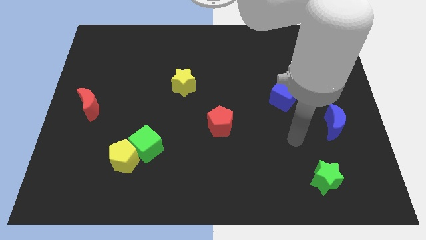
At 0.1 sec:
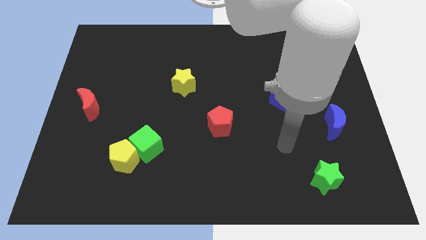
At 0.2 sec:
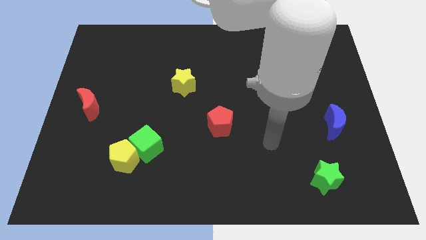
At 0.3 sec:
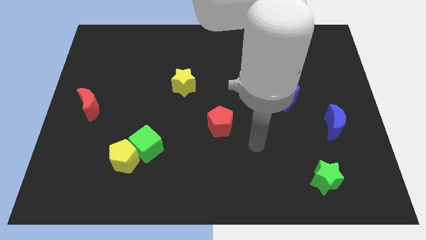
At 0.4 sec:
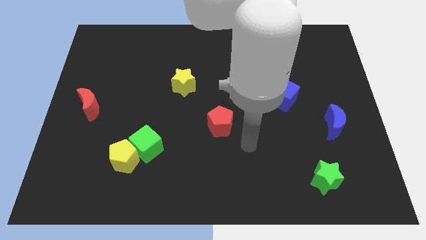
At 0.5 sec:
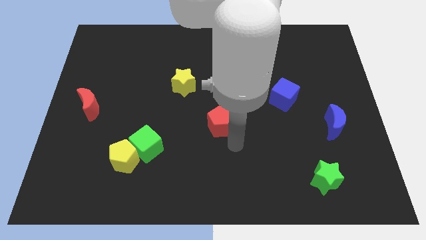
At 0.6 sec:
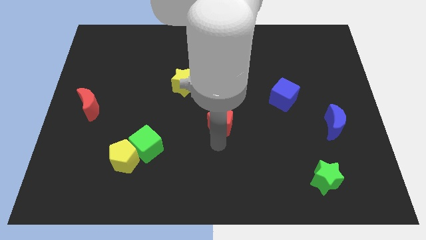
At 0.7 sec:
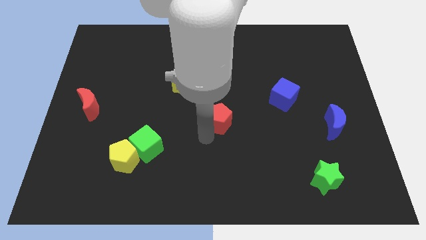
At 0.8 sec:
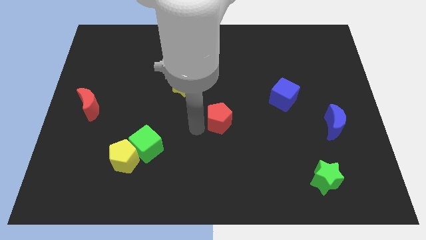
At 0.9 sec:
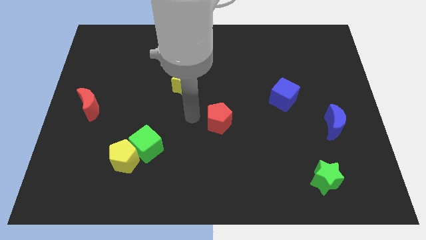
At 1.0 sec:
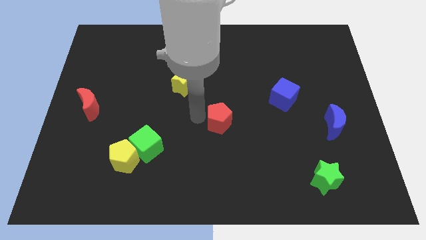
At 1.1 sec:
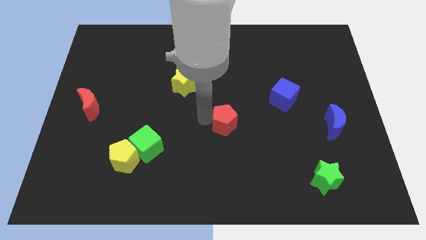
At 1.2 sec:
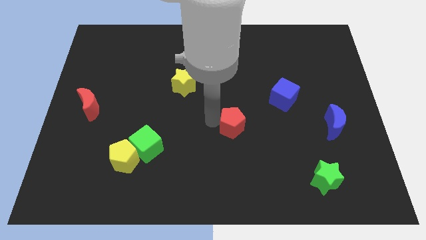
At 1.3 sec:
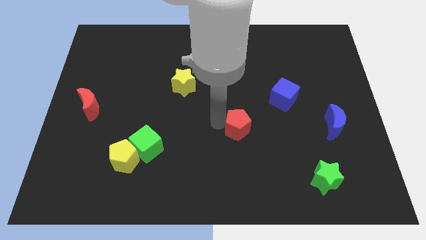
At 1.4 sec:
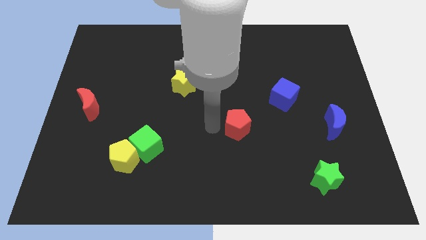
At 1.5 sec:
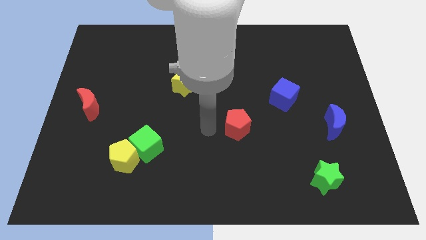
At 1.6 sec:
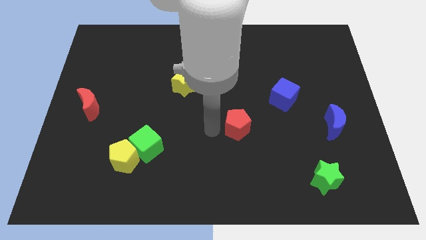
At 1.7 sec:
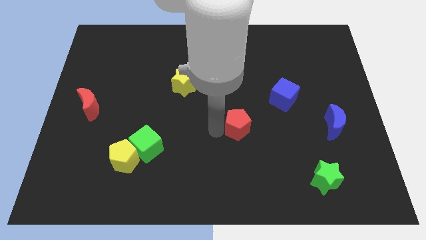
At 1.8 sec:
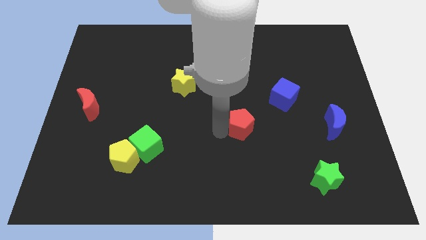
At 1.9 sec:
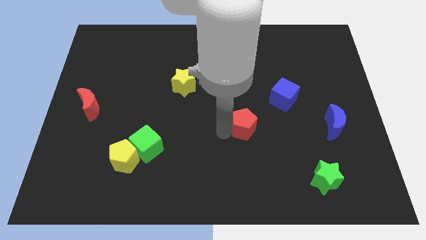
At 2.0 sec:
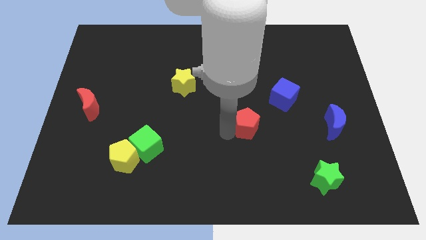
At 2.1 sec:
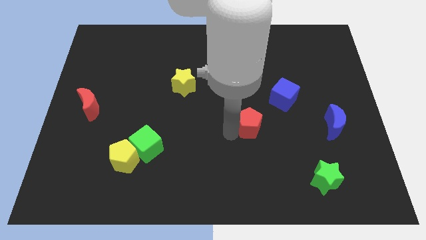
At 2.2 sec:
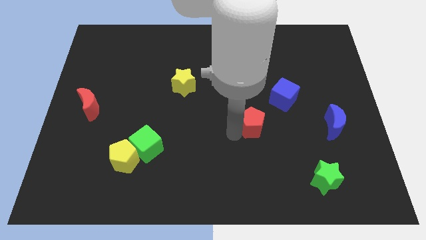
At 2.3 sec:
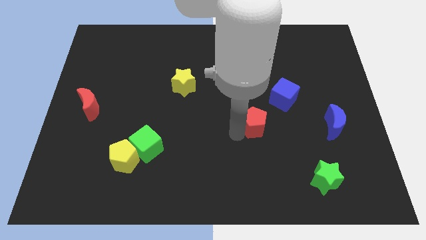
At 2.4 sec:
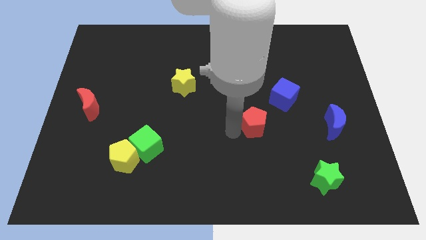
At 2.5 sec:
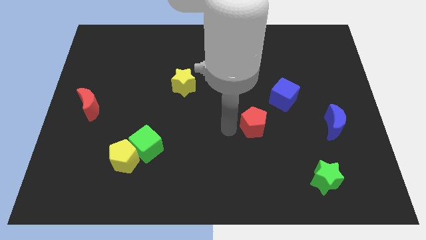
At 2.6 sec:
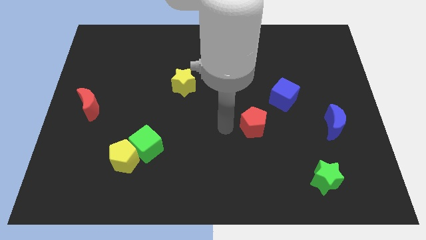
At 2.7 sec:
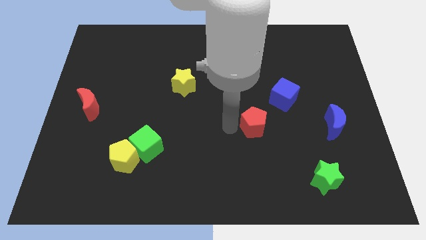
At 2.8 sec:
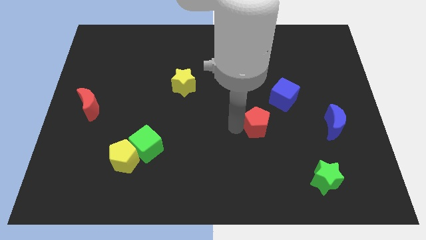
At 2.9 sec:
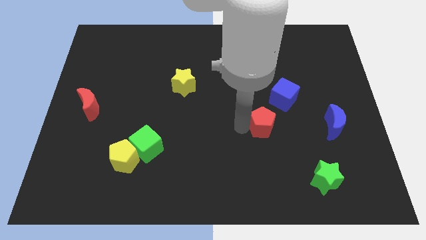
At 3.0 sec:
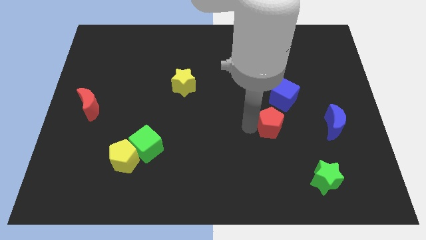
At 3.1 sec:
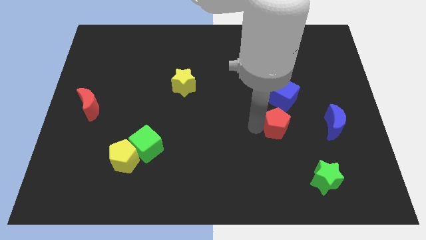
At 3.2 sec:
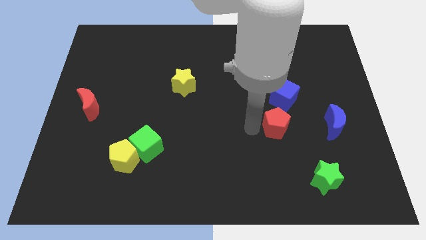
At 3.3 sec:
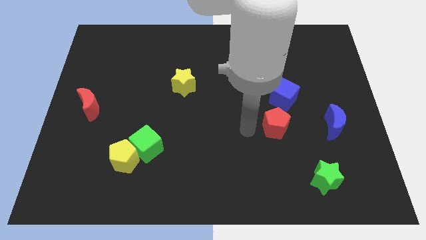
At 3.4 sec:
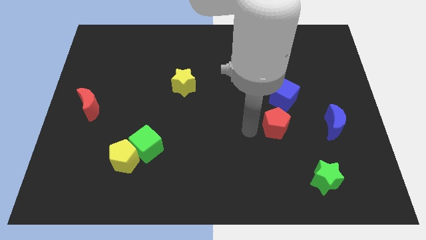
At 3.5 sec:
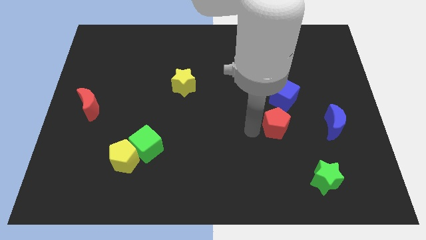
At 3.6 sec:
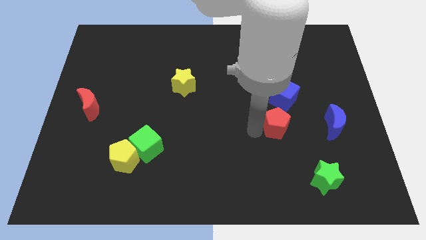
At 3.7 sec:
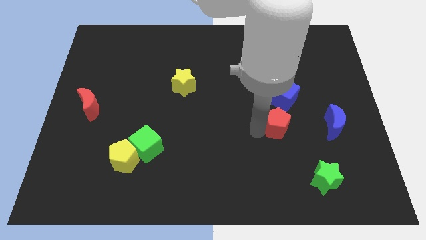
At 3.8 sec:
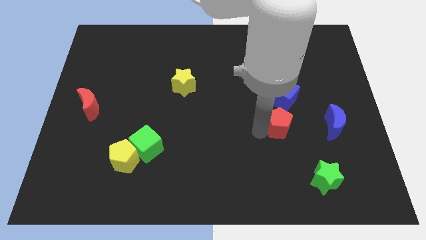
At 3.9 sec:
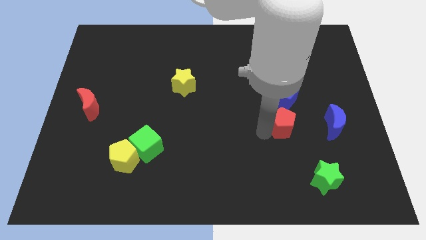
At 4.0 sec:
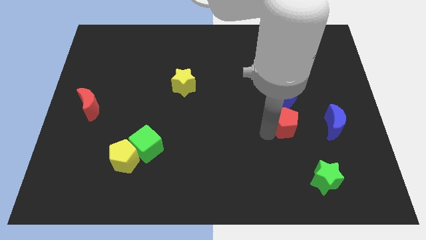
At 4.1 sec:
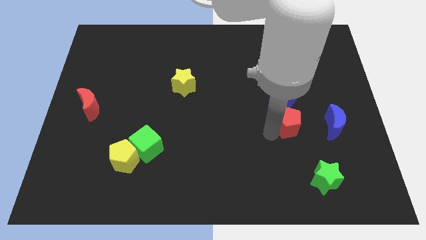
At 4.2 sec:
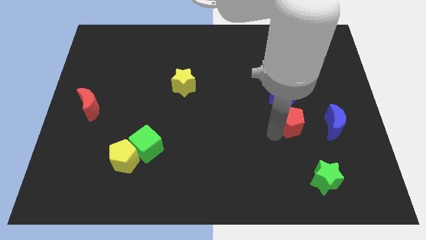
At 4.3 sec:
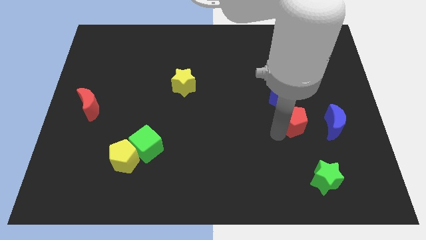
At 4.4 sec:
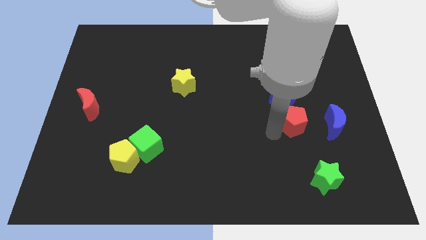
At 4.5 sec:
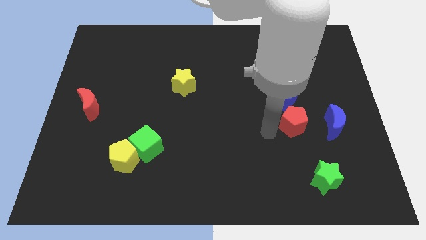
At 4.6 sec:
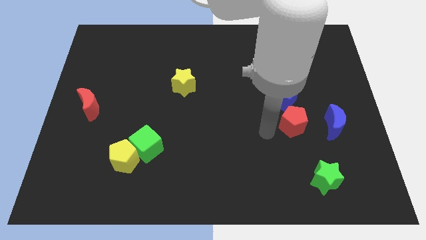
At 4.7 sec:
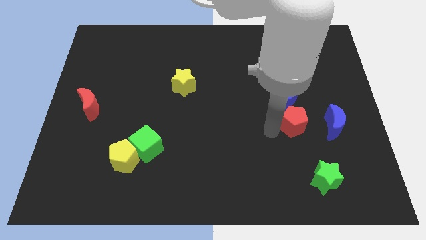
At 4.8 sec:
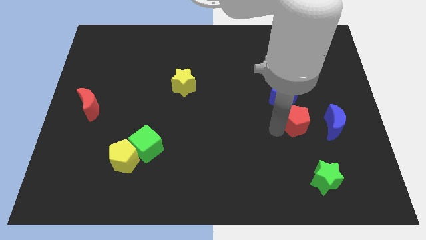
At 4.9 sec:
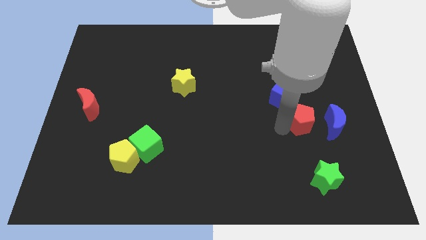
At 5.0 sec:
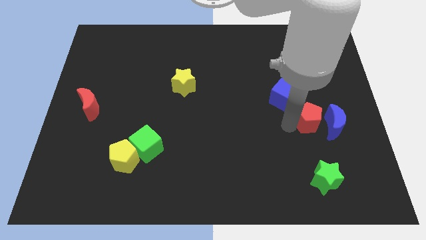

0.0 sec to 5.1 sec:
slide the red pentagon towards the blue moon

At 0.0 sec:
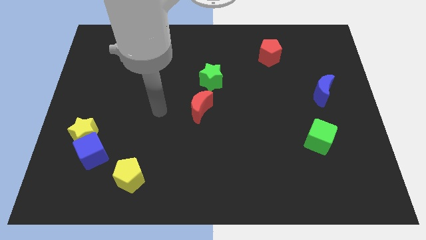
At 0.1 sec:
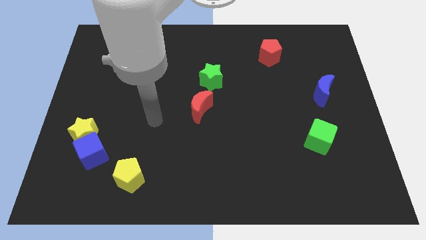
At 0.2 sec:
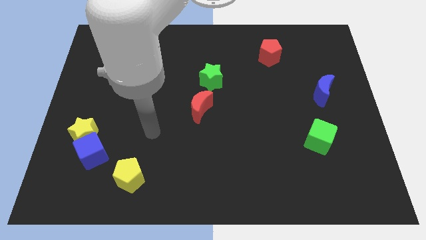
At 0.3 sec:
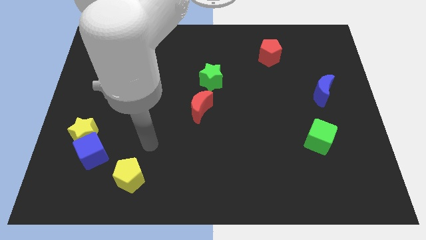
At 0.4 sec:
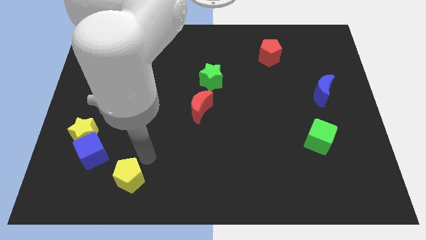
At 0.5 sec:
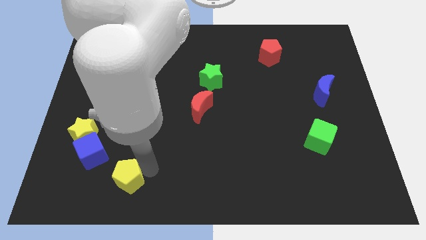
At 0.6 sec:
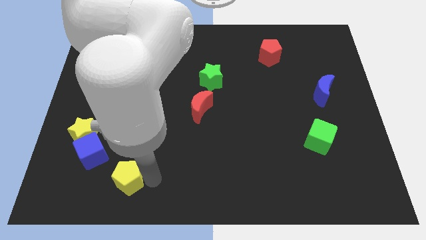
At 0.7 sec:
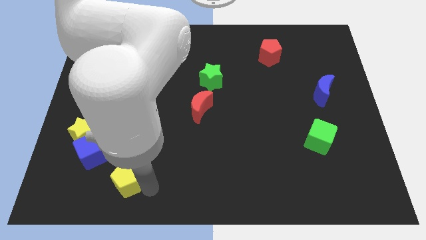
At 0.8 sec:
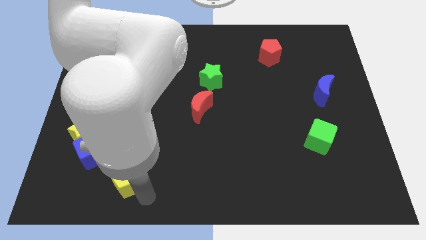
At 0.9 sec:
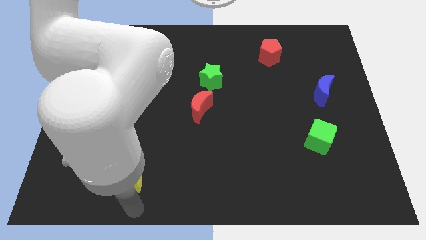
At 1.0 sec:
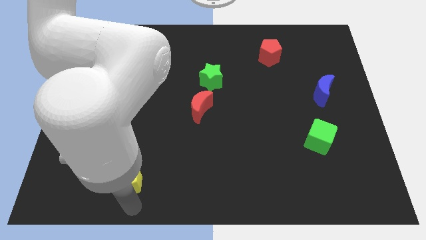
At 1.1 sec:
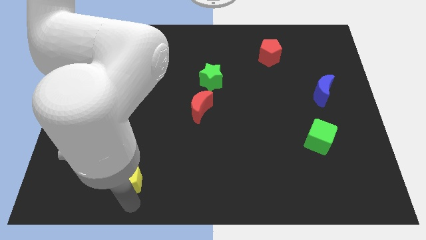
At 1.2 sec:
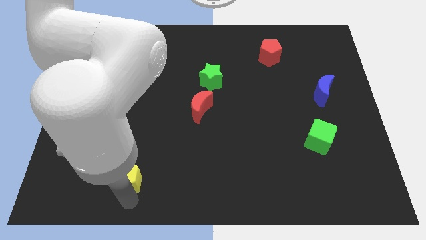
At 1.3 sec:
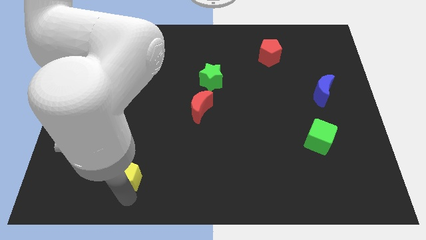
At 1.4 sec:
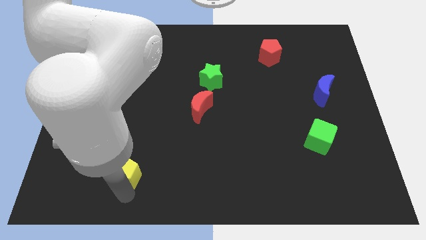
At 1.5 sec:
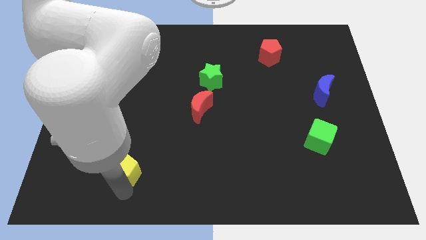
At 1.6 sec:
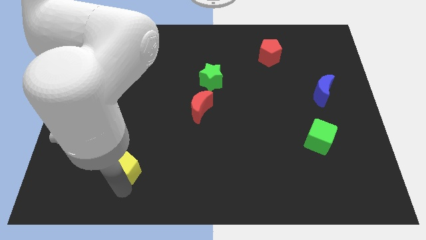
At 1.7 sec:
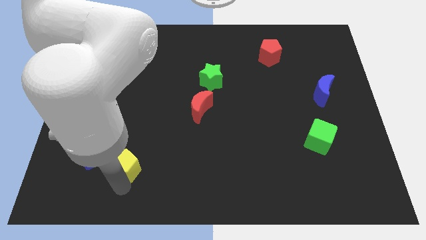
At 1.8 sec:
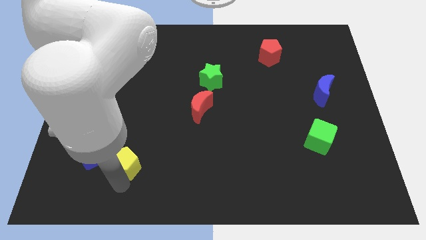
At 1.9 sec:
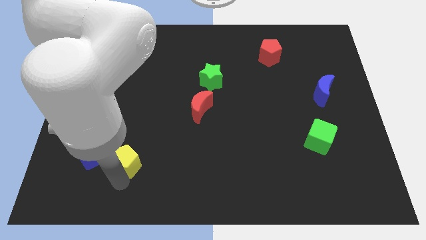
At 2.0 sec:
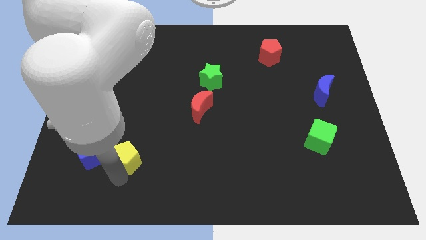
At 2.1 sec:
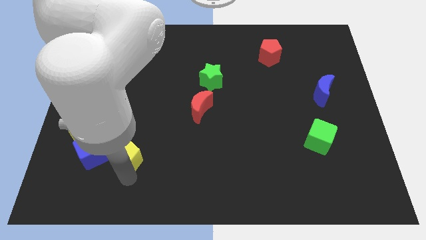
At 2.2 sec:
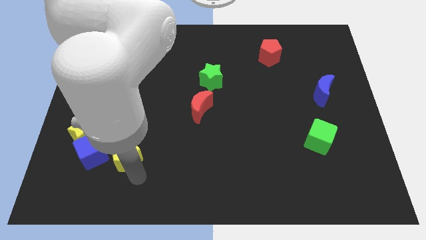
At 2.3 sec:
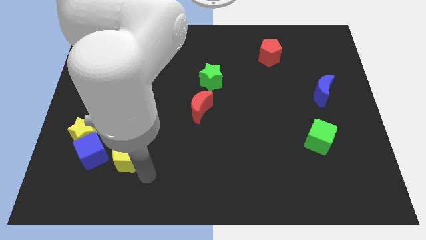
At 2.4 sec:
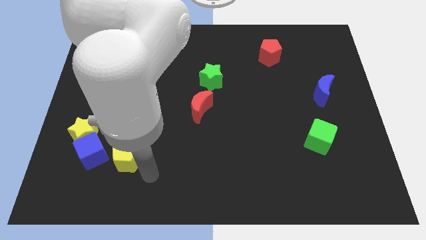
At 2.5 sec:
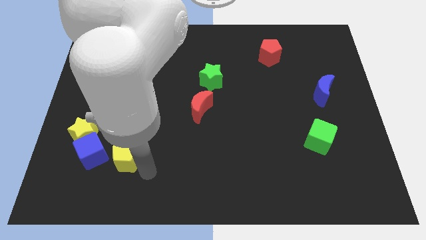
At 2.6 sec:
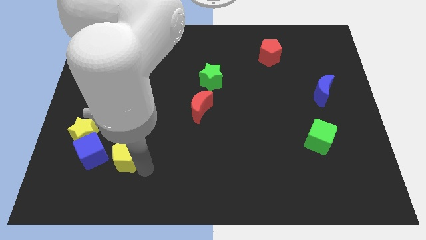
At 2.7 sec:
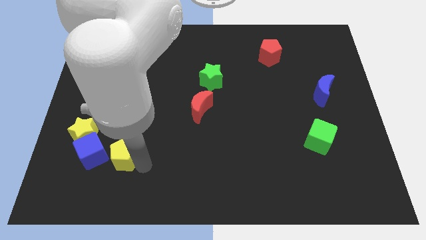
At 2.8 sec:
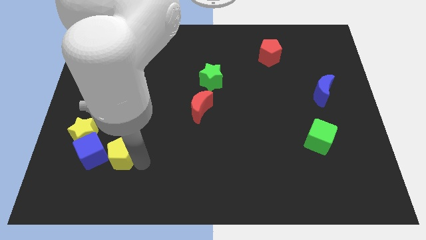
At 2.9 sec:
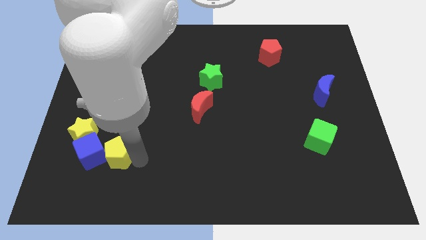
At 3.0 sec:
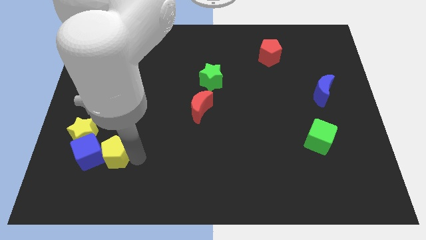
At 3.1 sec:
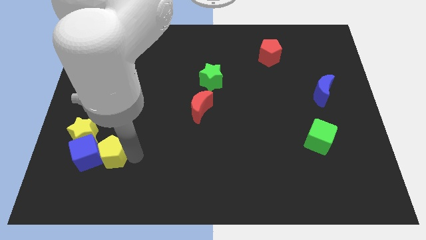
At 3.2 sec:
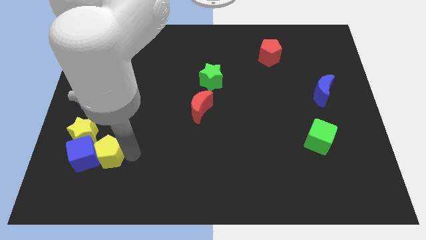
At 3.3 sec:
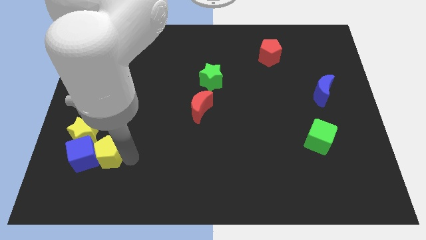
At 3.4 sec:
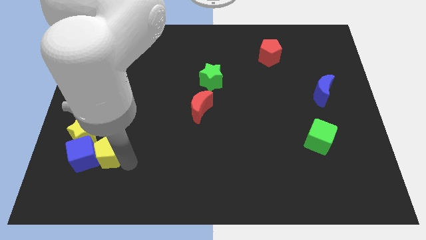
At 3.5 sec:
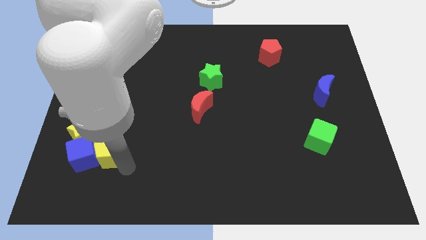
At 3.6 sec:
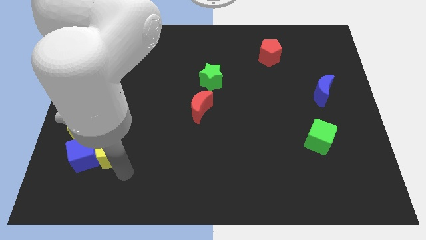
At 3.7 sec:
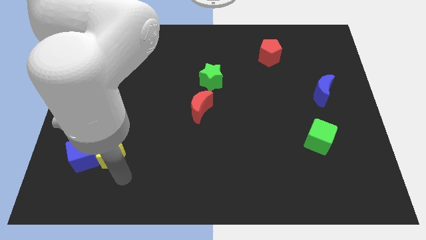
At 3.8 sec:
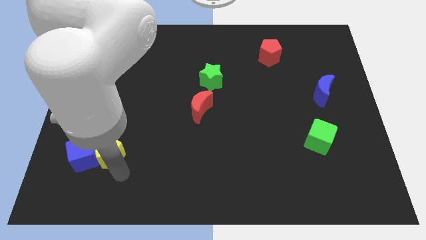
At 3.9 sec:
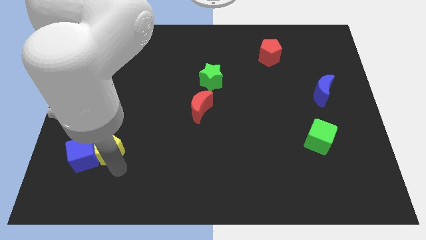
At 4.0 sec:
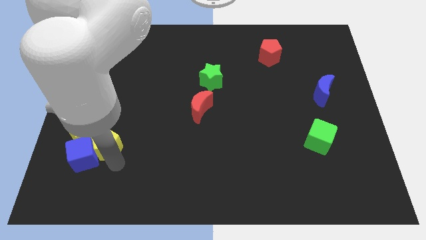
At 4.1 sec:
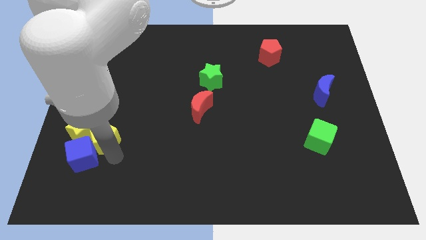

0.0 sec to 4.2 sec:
push the yellow pentagon towards the yellow star
